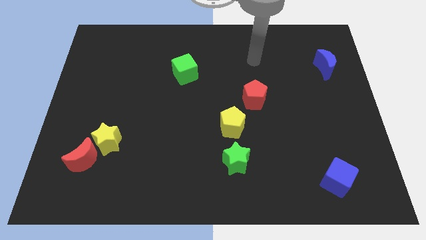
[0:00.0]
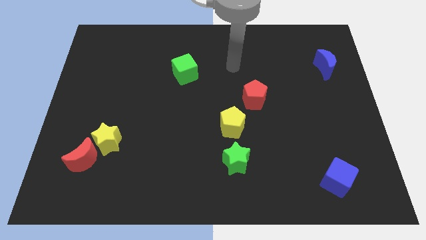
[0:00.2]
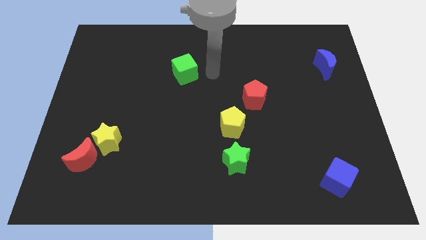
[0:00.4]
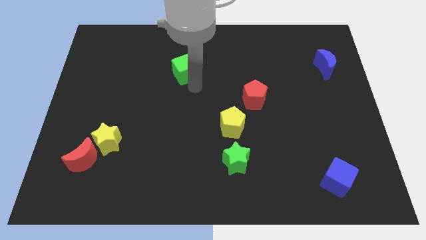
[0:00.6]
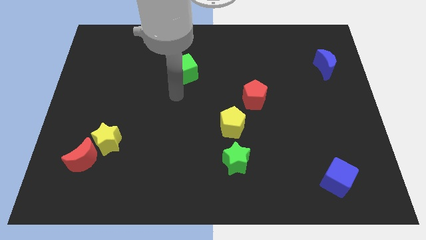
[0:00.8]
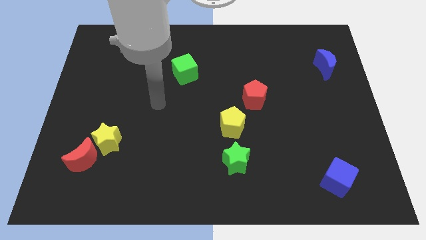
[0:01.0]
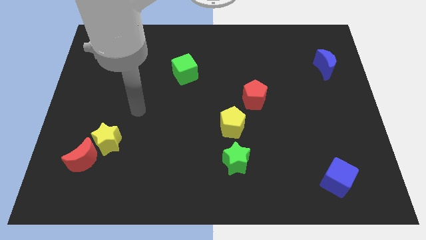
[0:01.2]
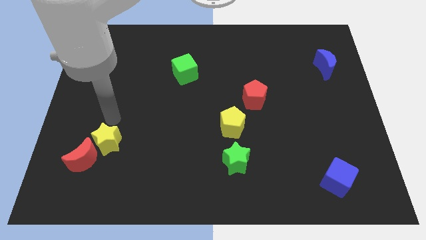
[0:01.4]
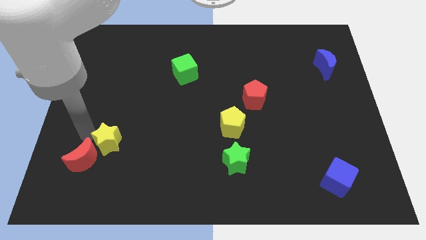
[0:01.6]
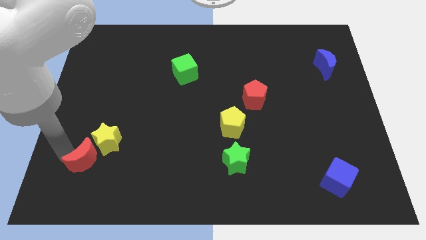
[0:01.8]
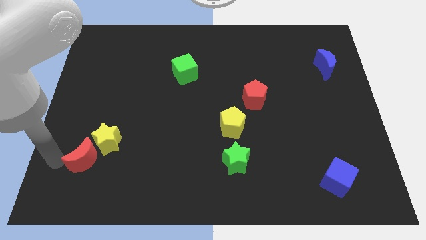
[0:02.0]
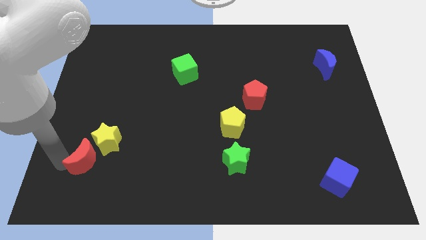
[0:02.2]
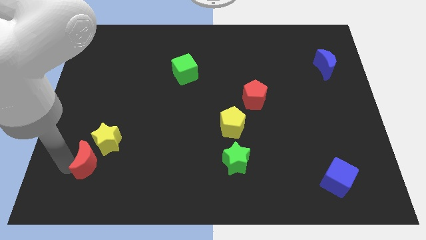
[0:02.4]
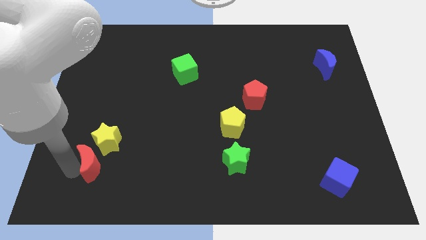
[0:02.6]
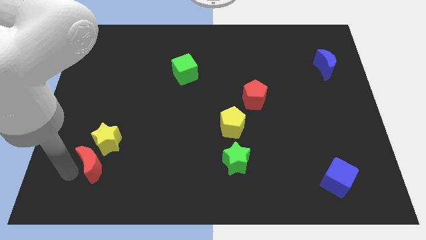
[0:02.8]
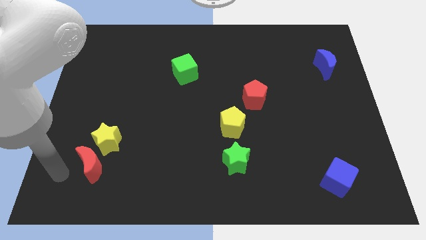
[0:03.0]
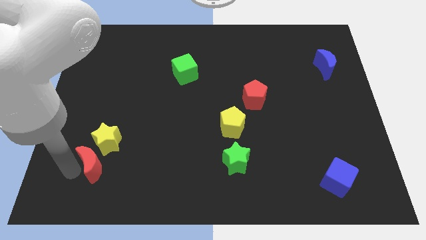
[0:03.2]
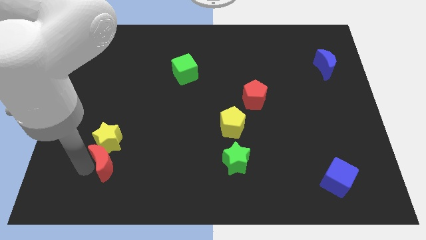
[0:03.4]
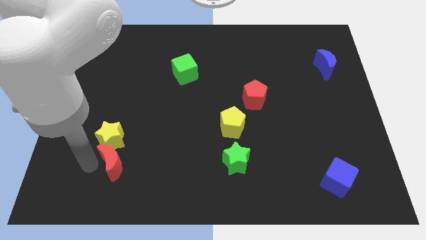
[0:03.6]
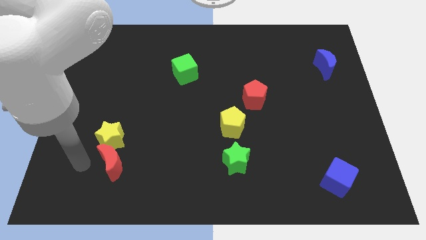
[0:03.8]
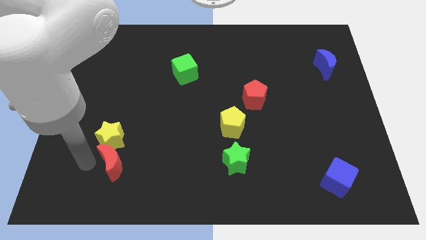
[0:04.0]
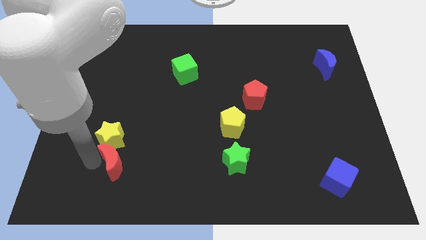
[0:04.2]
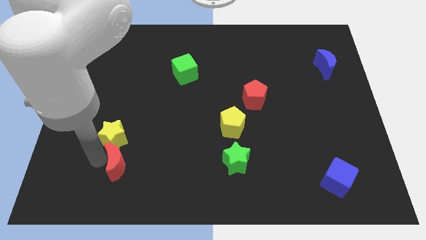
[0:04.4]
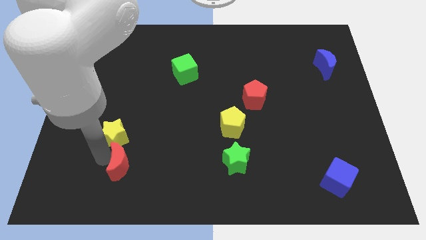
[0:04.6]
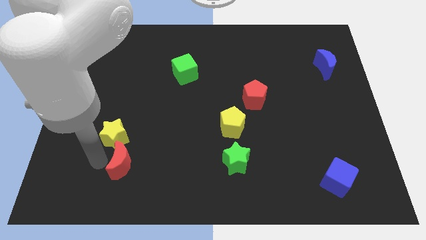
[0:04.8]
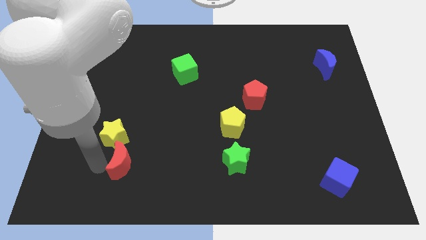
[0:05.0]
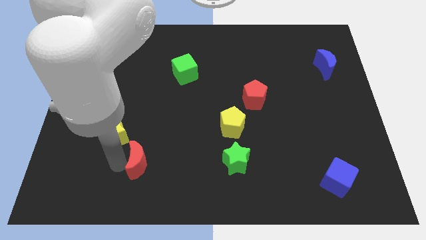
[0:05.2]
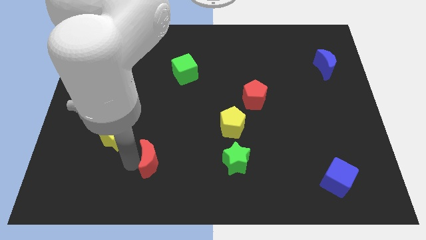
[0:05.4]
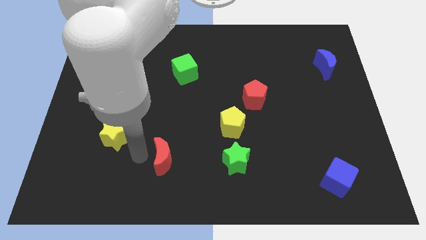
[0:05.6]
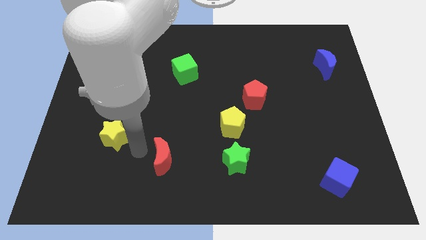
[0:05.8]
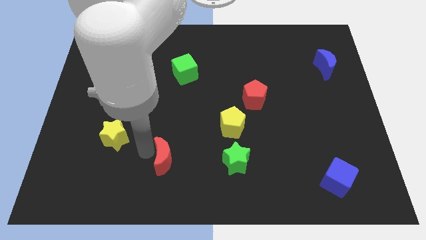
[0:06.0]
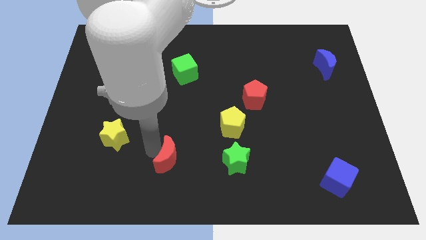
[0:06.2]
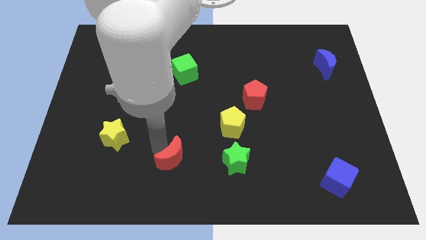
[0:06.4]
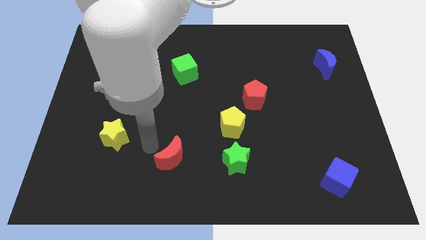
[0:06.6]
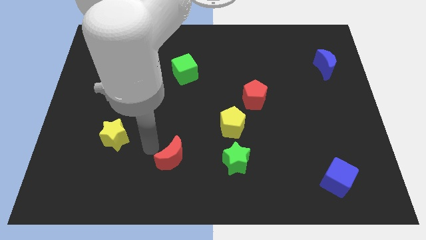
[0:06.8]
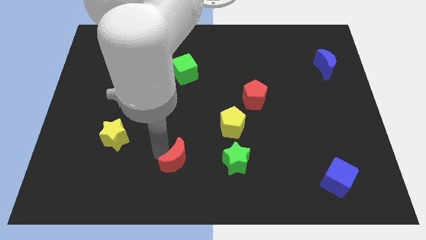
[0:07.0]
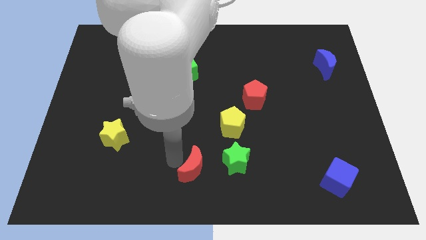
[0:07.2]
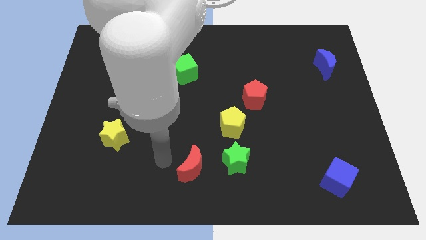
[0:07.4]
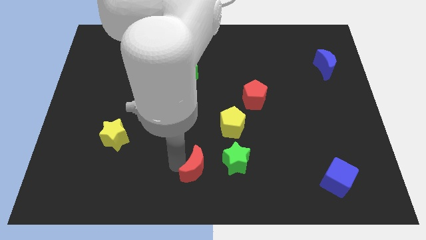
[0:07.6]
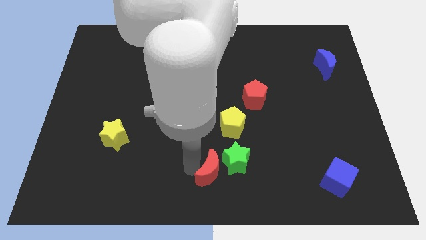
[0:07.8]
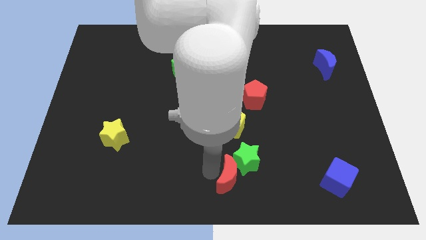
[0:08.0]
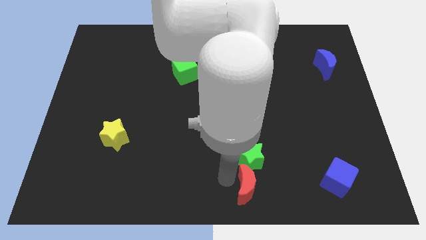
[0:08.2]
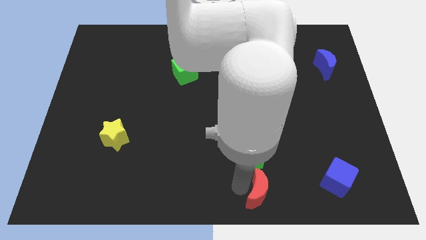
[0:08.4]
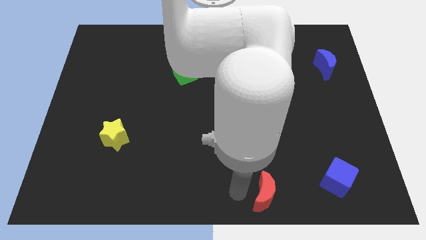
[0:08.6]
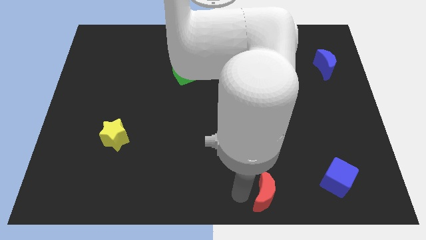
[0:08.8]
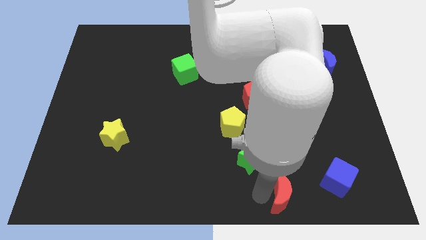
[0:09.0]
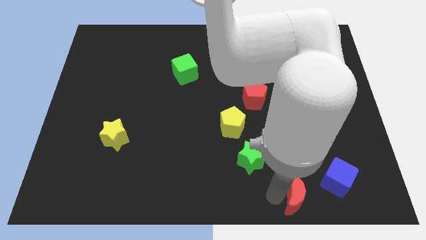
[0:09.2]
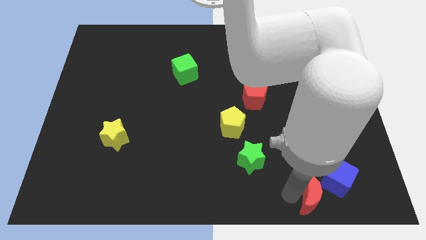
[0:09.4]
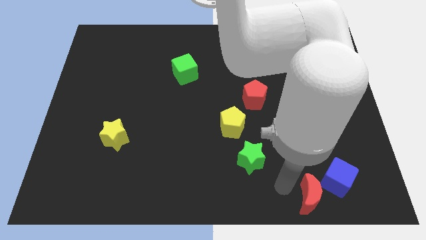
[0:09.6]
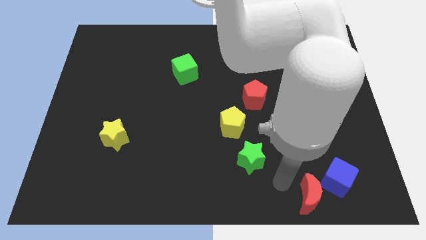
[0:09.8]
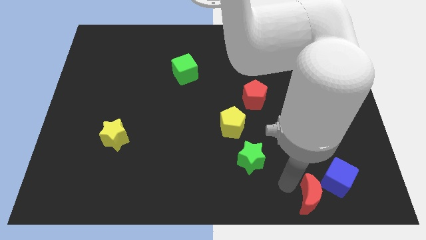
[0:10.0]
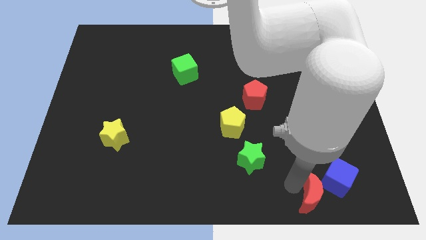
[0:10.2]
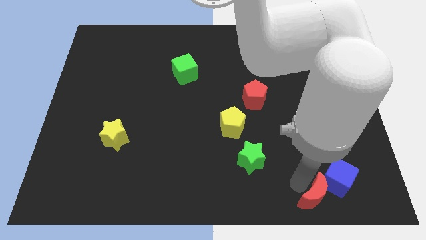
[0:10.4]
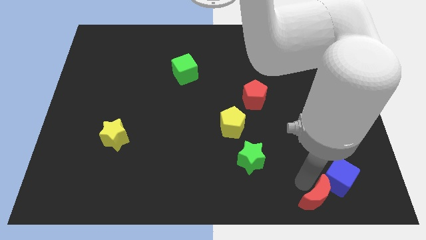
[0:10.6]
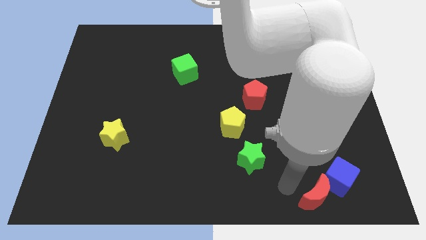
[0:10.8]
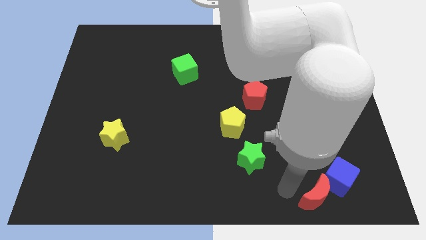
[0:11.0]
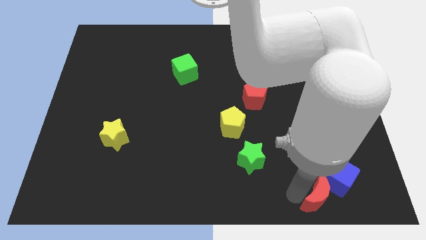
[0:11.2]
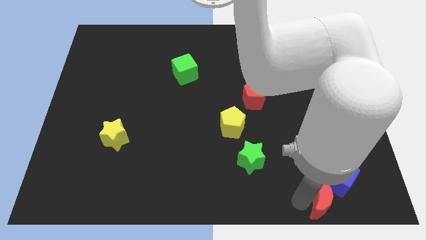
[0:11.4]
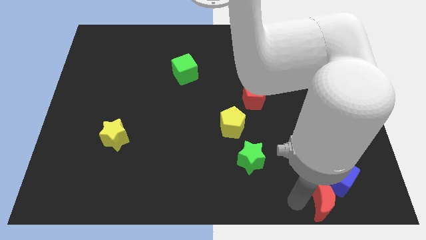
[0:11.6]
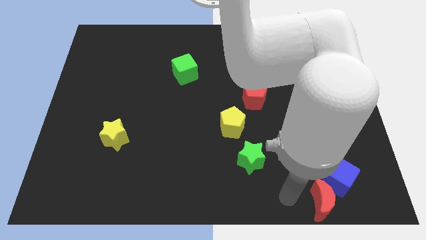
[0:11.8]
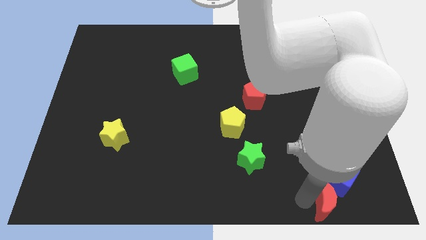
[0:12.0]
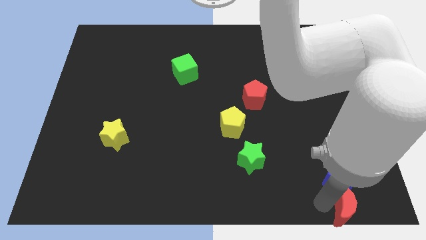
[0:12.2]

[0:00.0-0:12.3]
slide the red moon to the lower right corner

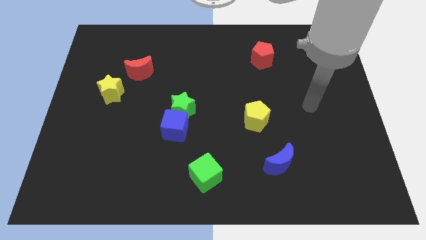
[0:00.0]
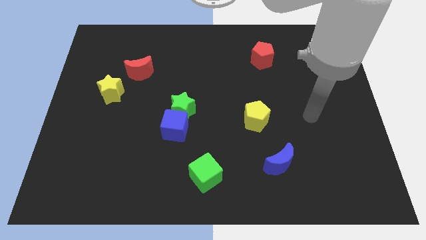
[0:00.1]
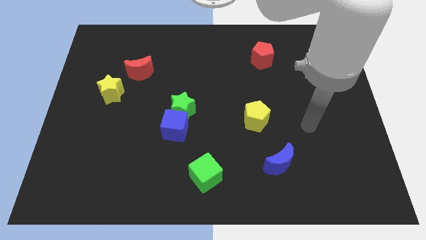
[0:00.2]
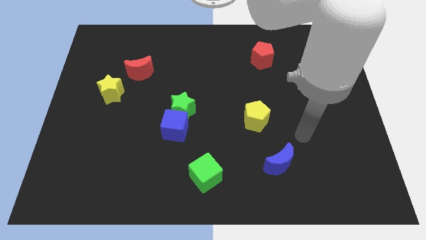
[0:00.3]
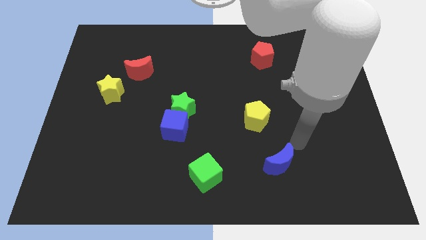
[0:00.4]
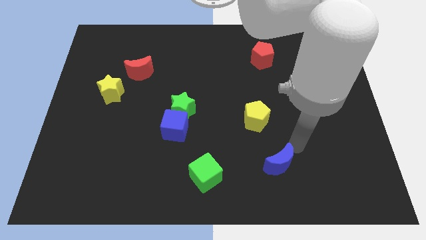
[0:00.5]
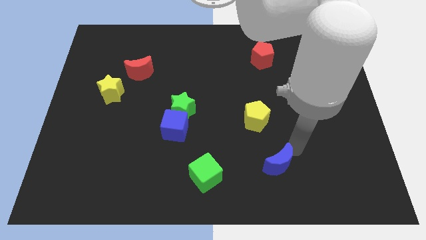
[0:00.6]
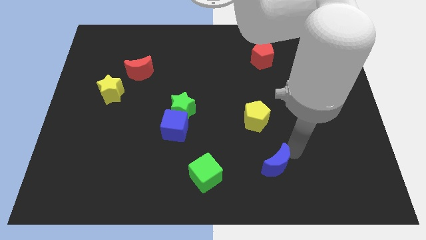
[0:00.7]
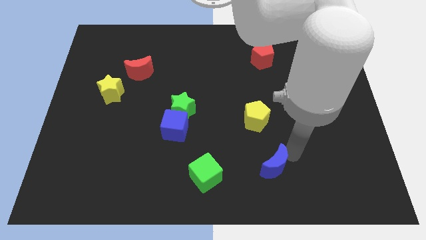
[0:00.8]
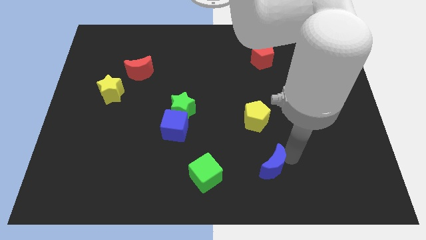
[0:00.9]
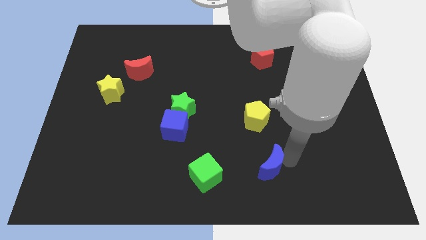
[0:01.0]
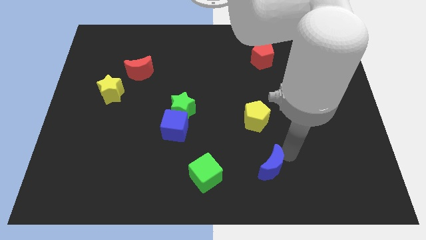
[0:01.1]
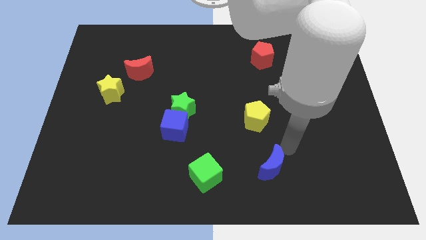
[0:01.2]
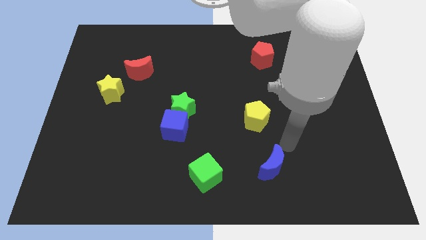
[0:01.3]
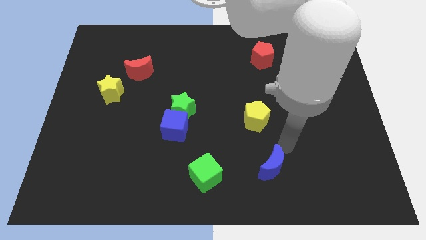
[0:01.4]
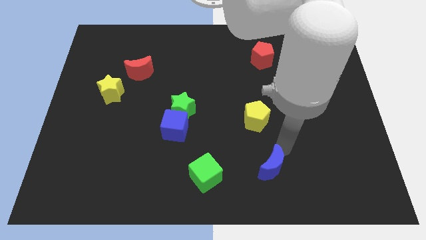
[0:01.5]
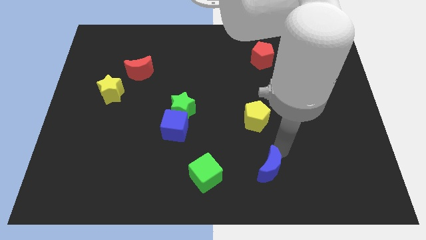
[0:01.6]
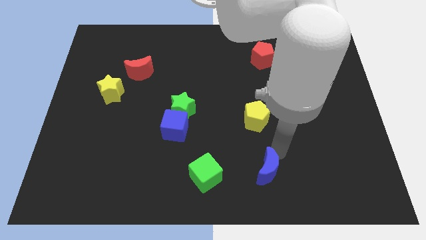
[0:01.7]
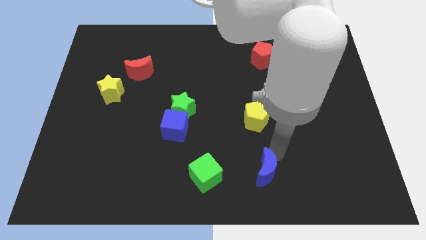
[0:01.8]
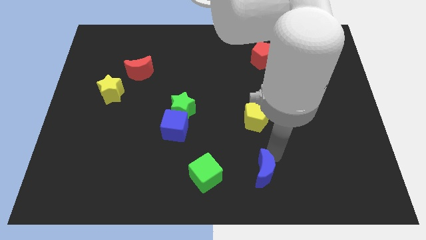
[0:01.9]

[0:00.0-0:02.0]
put the blue moon to the bottom
